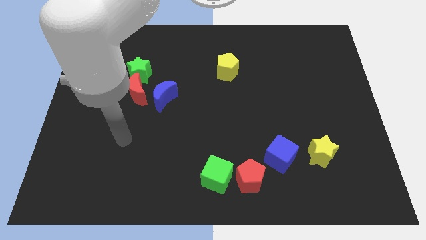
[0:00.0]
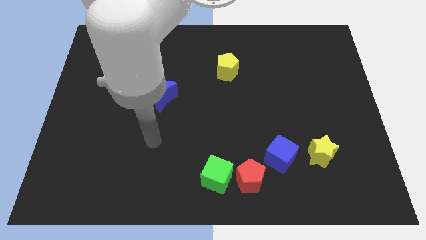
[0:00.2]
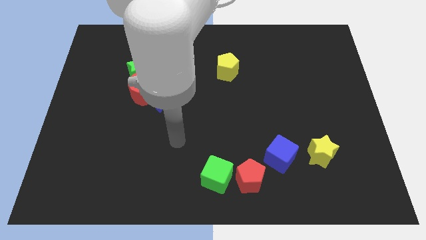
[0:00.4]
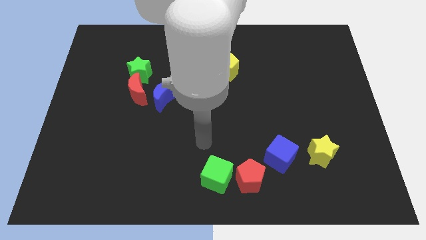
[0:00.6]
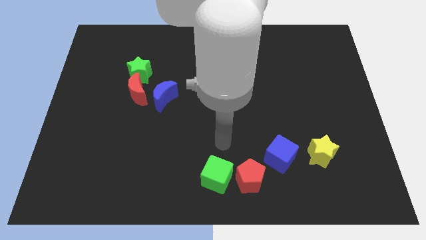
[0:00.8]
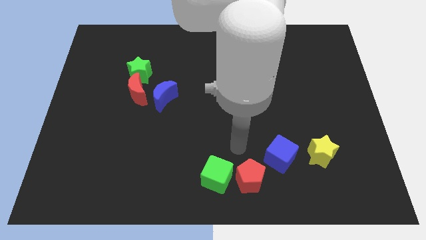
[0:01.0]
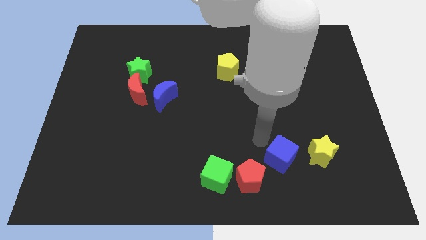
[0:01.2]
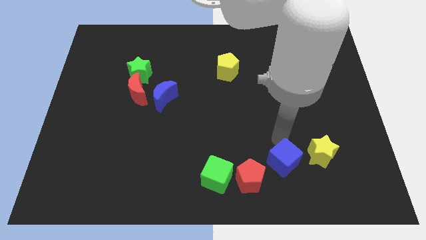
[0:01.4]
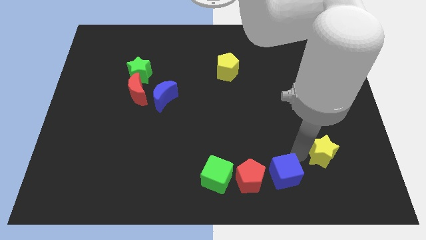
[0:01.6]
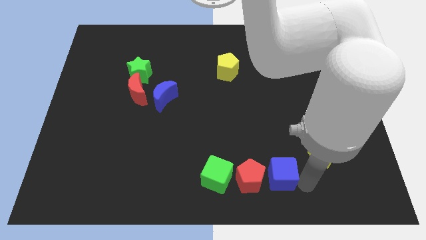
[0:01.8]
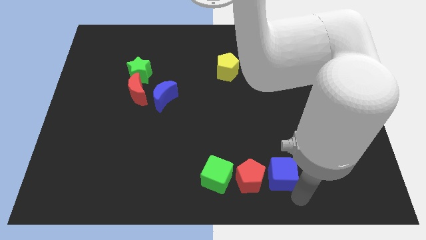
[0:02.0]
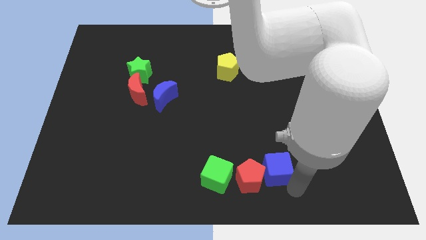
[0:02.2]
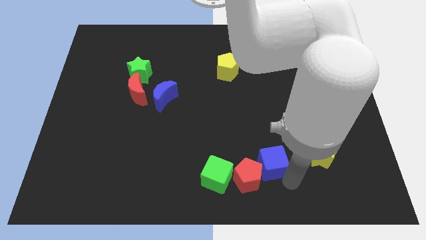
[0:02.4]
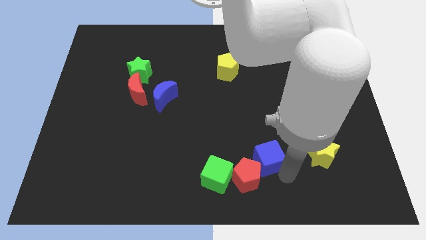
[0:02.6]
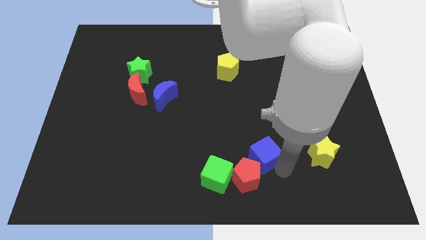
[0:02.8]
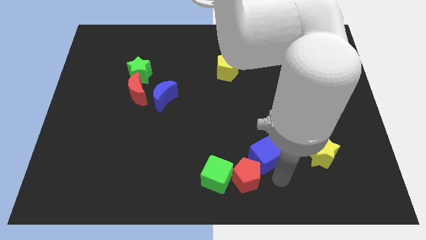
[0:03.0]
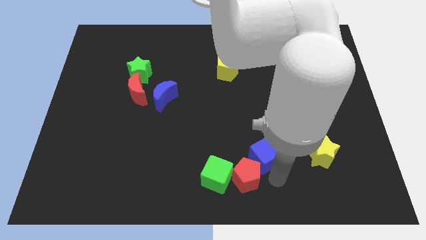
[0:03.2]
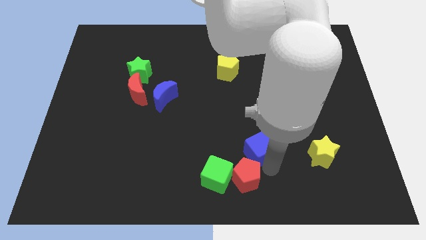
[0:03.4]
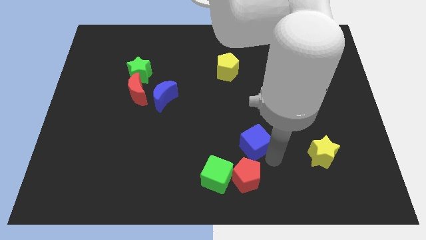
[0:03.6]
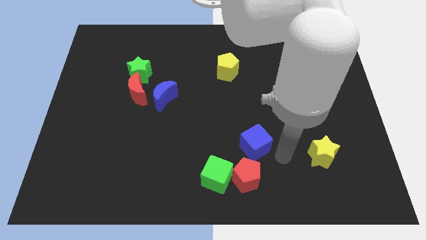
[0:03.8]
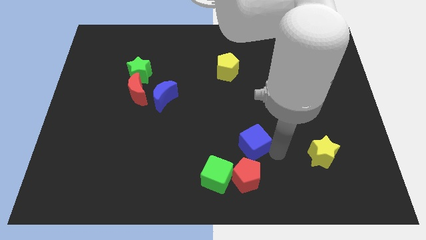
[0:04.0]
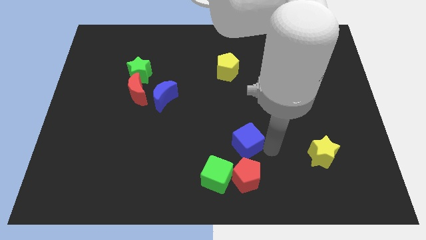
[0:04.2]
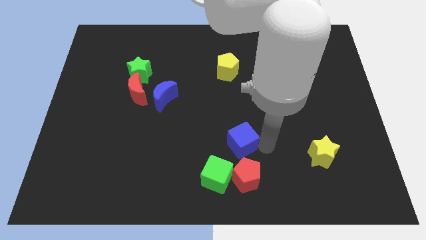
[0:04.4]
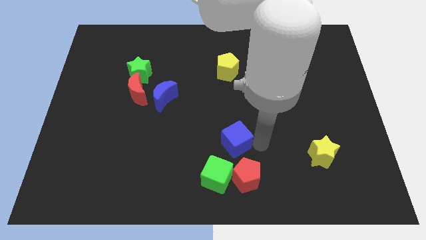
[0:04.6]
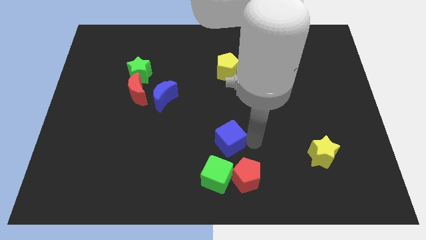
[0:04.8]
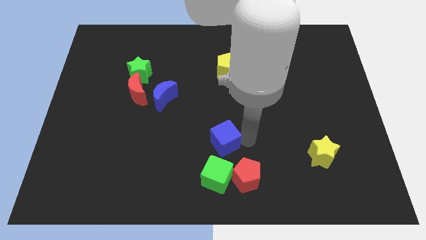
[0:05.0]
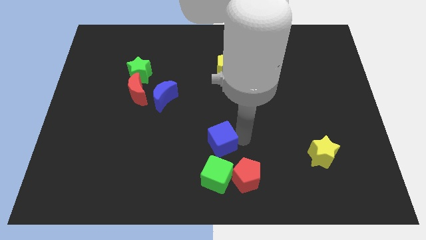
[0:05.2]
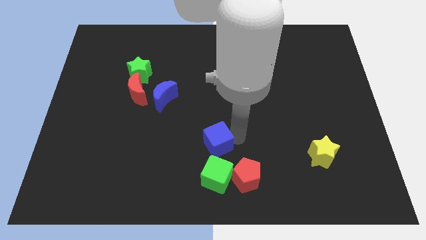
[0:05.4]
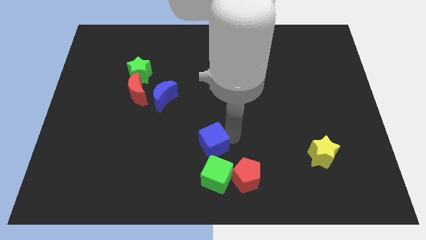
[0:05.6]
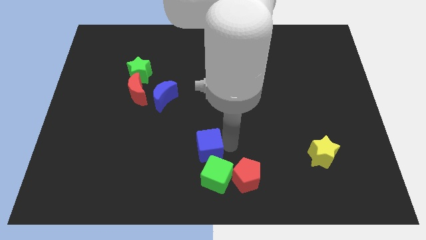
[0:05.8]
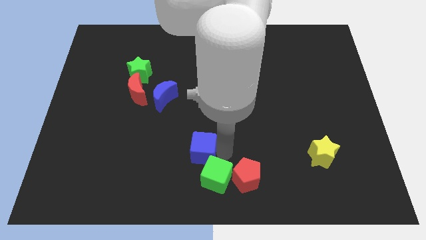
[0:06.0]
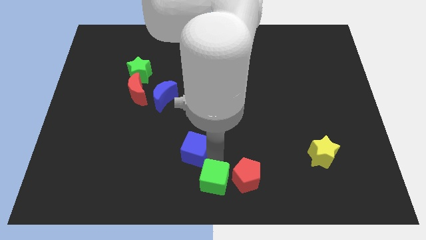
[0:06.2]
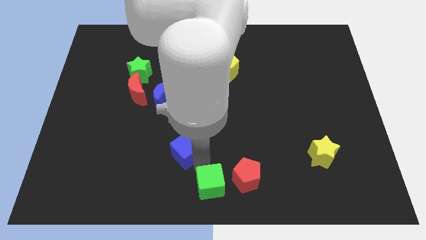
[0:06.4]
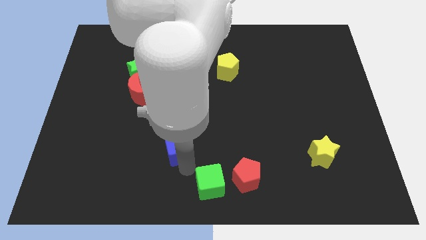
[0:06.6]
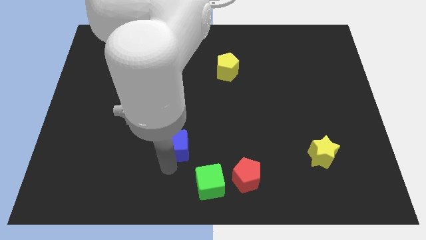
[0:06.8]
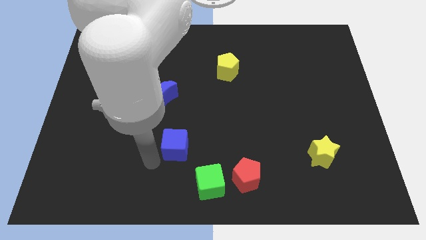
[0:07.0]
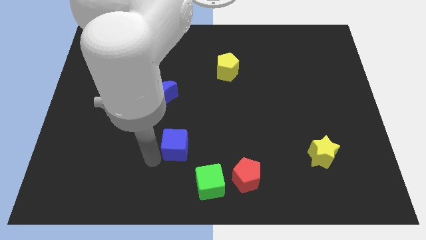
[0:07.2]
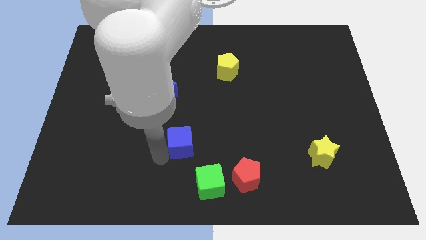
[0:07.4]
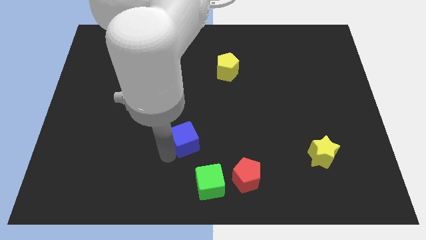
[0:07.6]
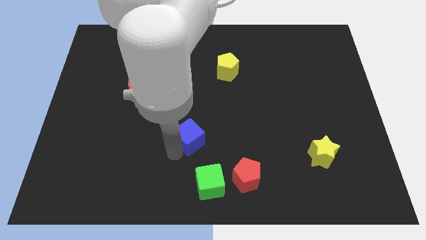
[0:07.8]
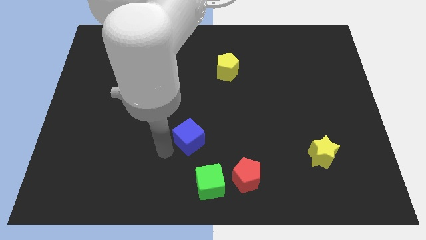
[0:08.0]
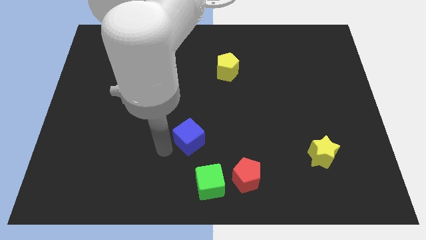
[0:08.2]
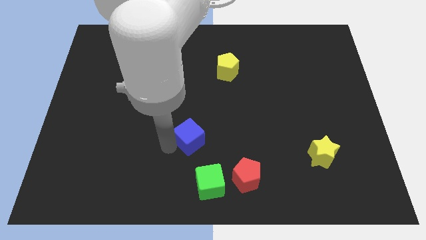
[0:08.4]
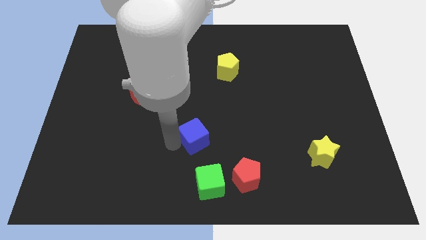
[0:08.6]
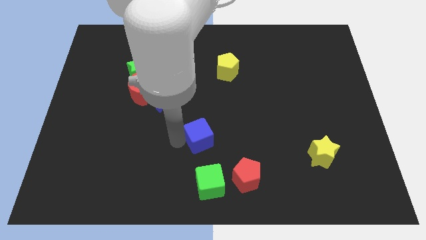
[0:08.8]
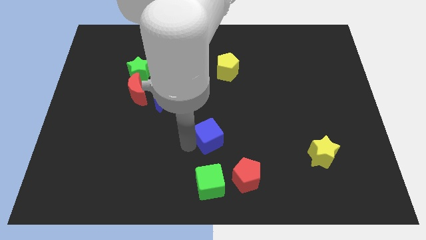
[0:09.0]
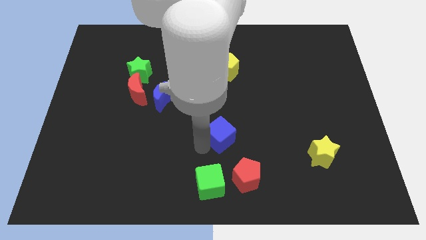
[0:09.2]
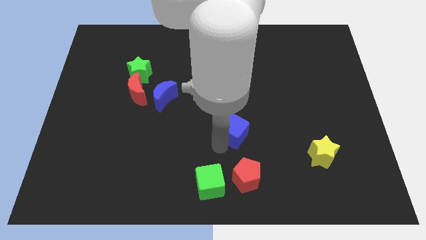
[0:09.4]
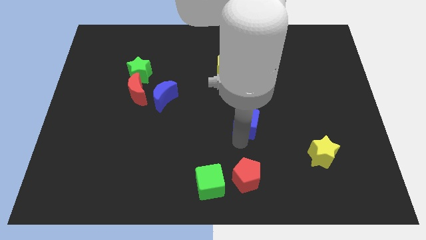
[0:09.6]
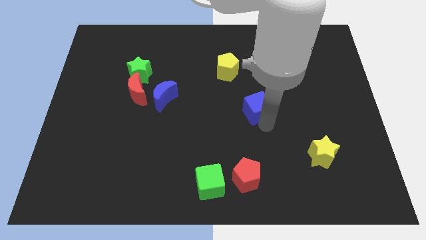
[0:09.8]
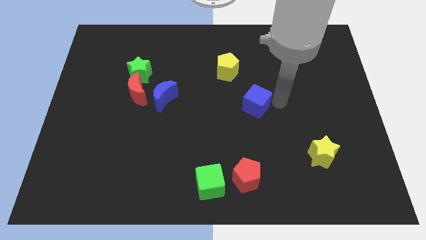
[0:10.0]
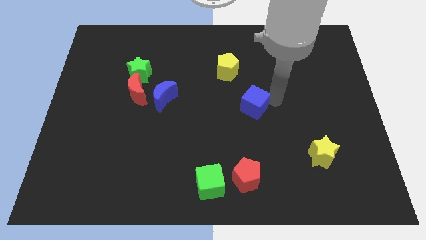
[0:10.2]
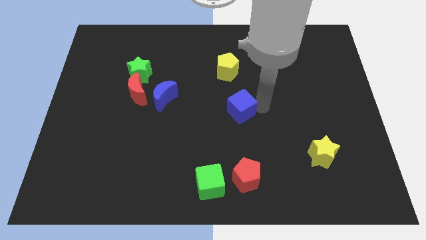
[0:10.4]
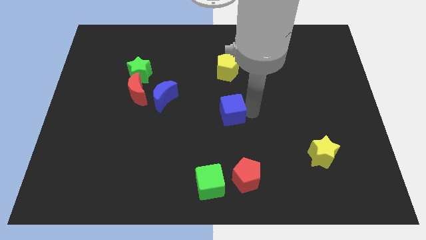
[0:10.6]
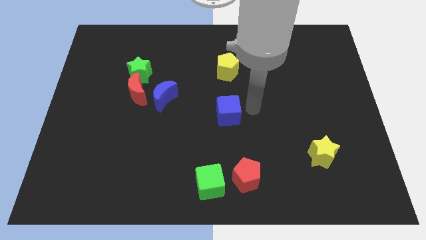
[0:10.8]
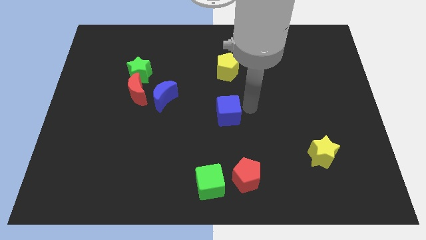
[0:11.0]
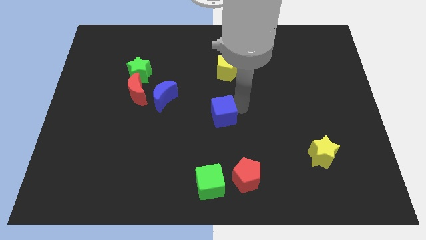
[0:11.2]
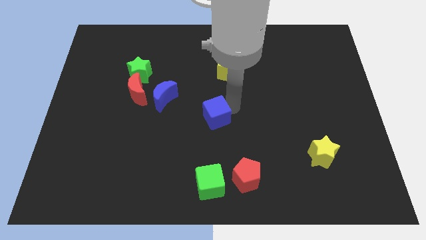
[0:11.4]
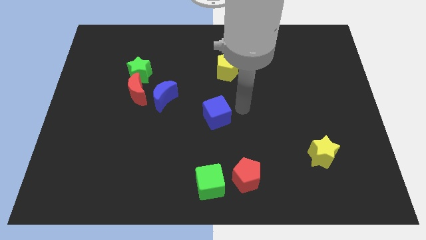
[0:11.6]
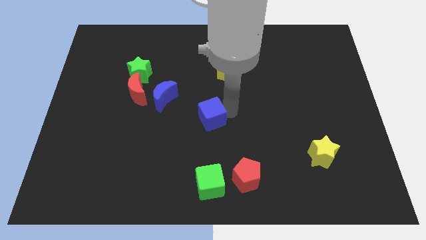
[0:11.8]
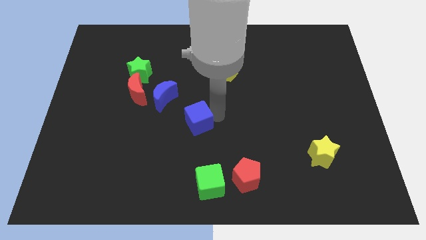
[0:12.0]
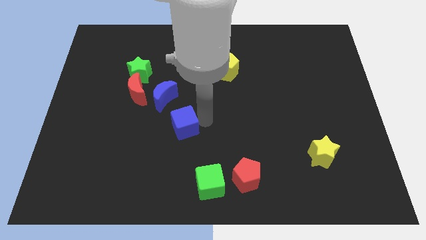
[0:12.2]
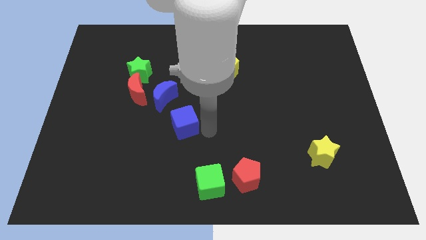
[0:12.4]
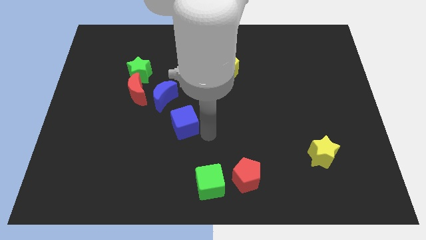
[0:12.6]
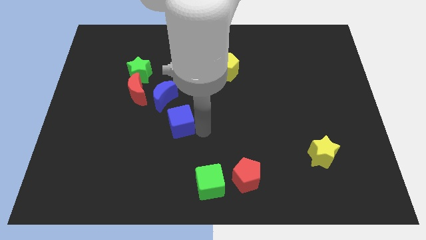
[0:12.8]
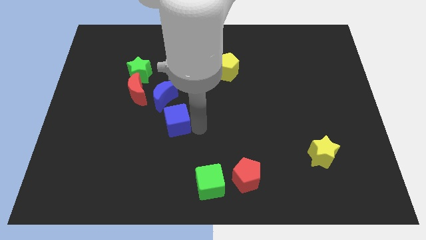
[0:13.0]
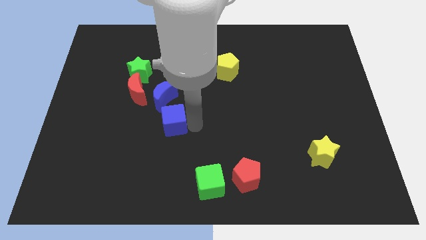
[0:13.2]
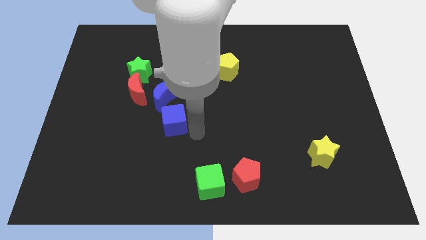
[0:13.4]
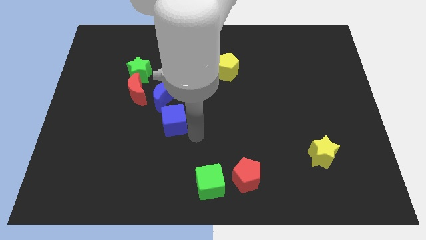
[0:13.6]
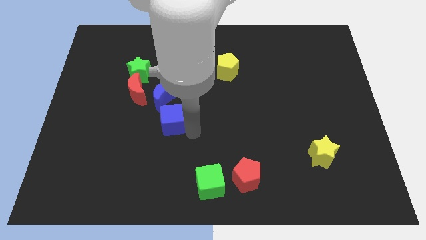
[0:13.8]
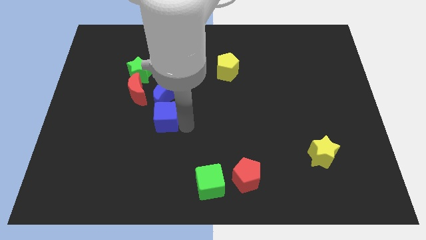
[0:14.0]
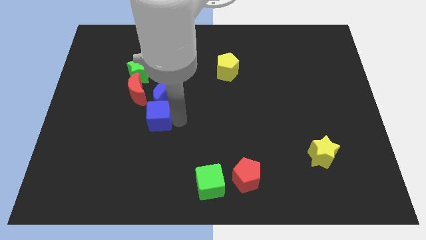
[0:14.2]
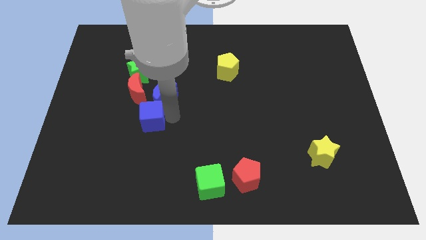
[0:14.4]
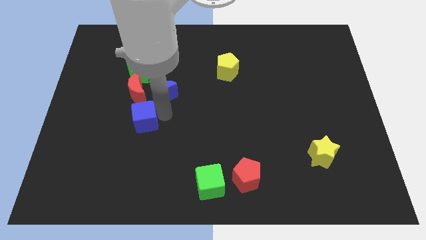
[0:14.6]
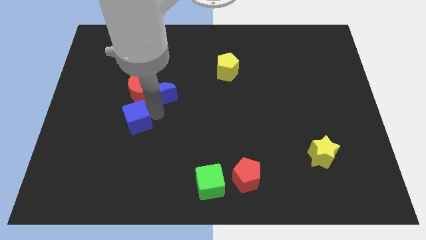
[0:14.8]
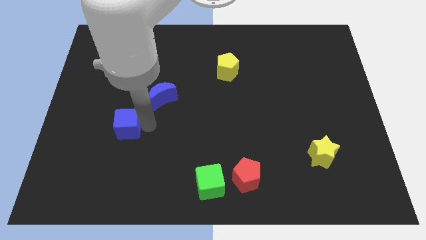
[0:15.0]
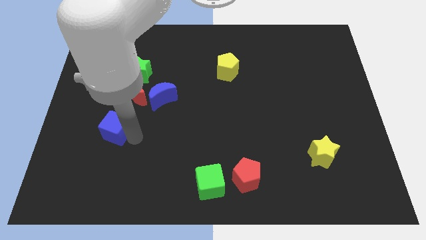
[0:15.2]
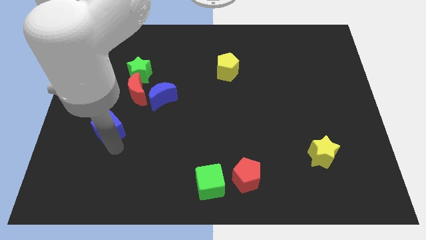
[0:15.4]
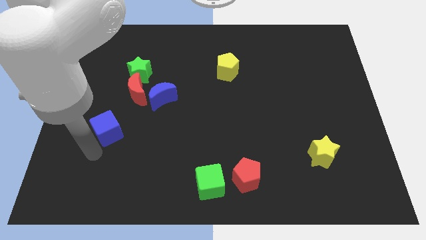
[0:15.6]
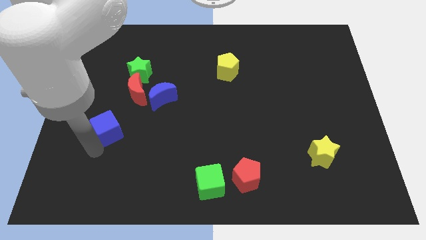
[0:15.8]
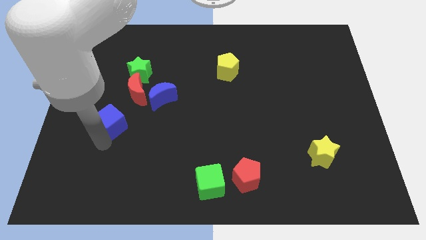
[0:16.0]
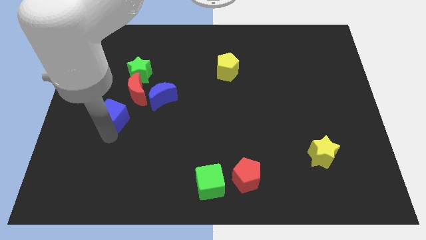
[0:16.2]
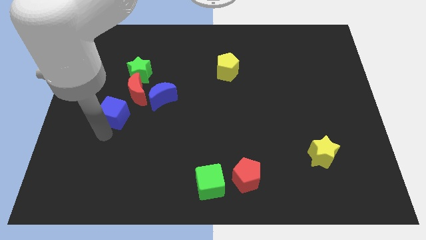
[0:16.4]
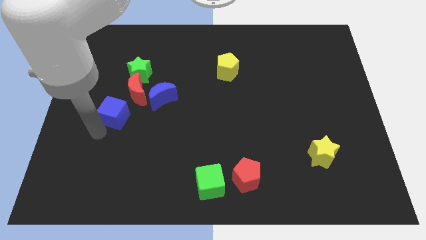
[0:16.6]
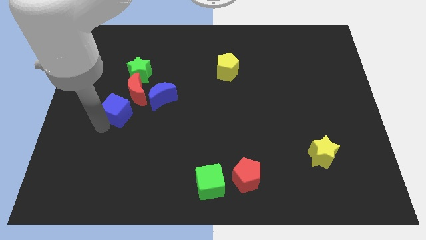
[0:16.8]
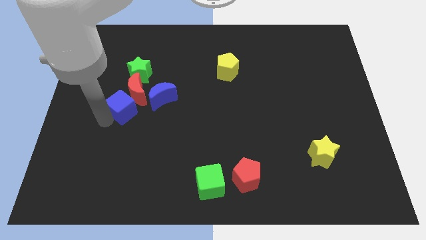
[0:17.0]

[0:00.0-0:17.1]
push the blue cube next to the red moon
